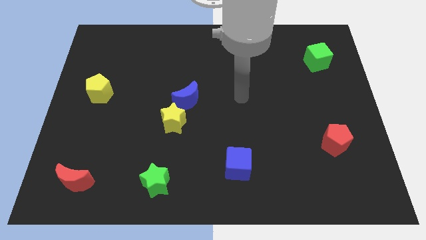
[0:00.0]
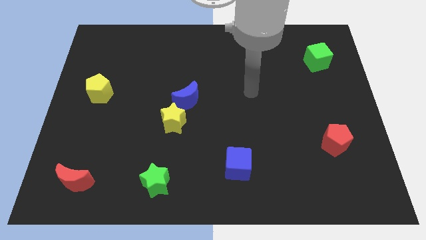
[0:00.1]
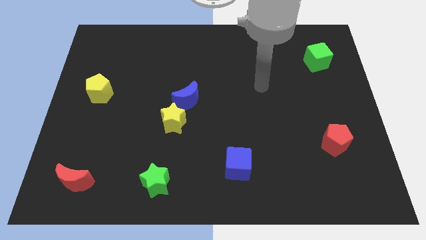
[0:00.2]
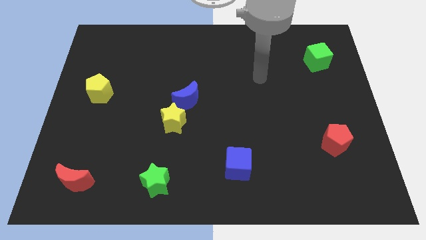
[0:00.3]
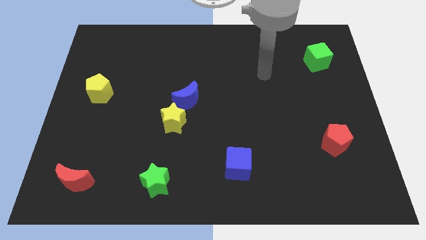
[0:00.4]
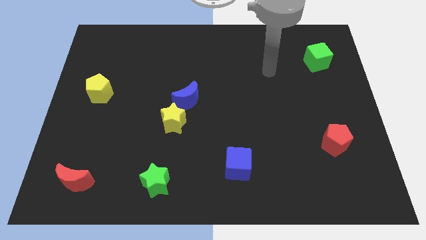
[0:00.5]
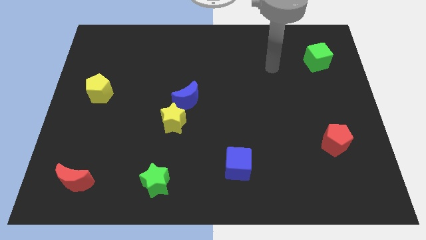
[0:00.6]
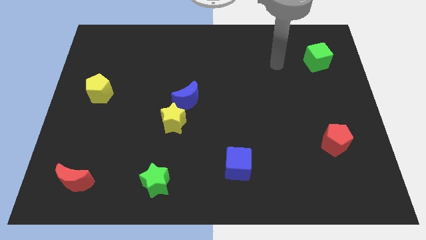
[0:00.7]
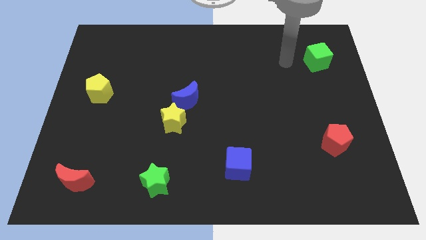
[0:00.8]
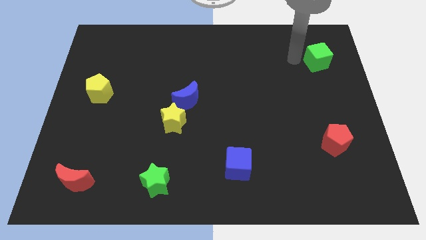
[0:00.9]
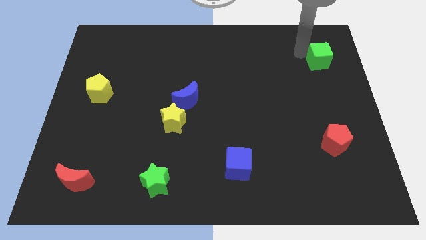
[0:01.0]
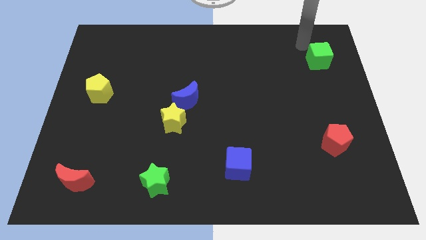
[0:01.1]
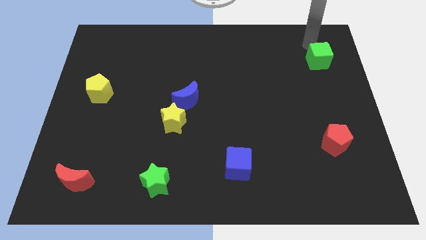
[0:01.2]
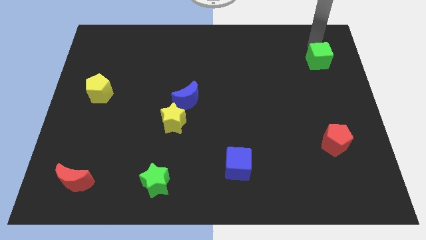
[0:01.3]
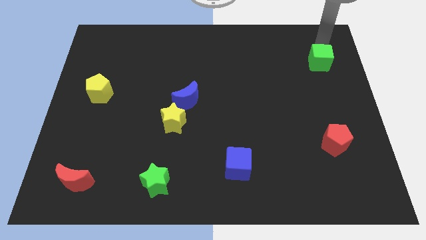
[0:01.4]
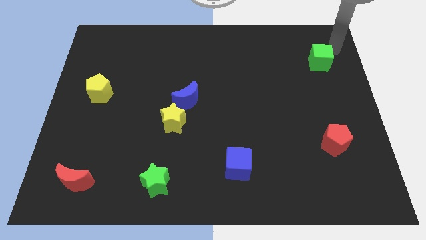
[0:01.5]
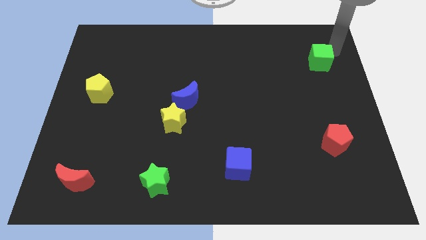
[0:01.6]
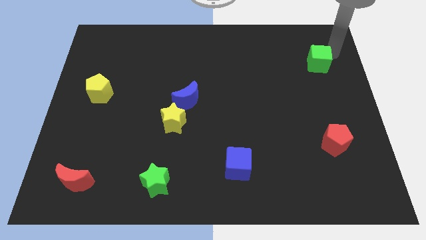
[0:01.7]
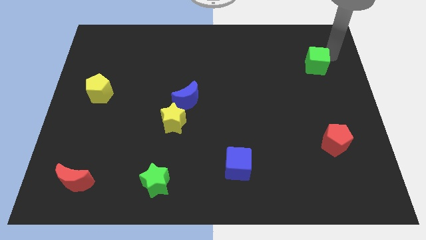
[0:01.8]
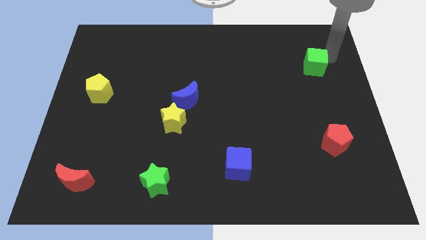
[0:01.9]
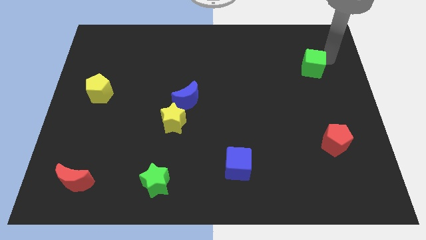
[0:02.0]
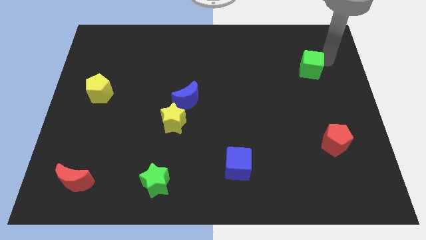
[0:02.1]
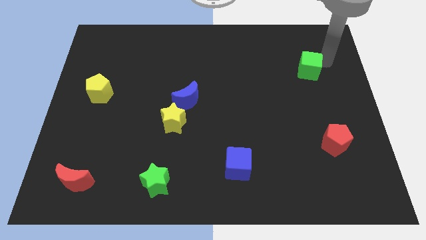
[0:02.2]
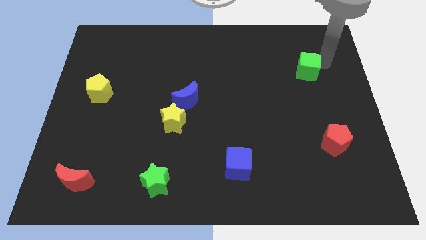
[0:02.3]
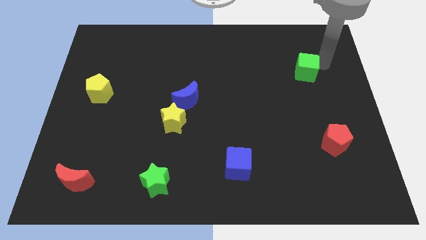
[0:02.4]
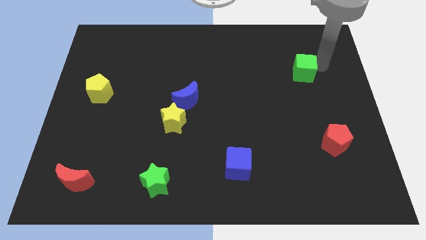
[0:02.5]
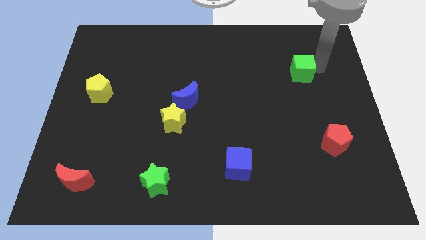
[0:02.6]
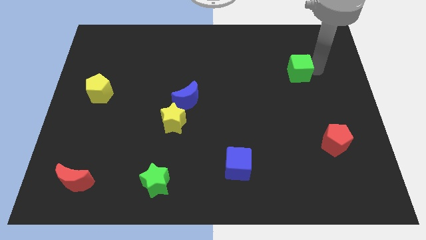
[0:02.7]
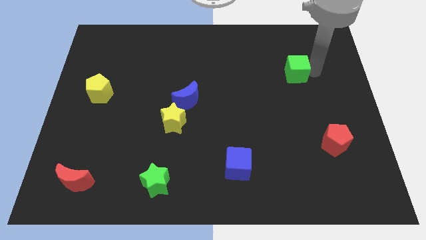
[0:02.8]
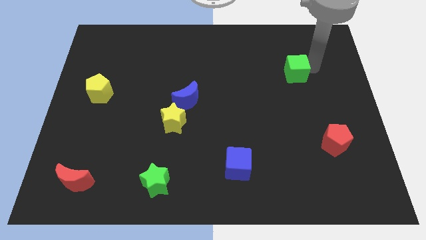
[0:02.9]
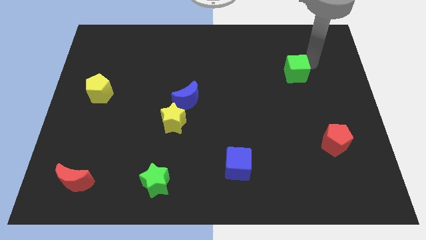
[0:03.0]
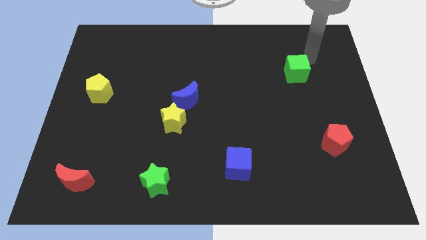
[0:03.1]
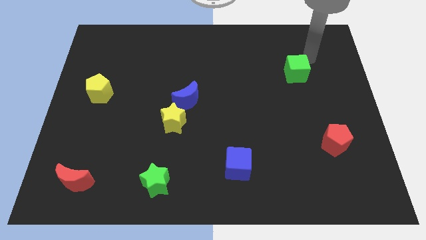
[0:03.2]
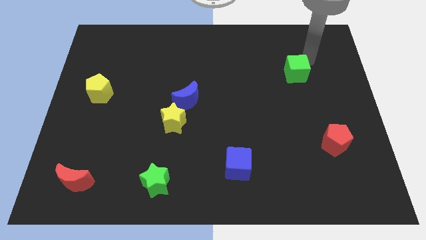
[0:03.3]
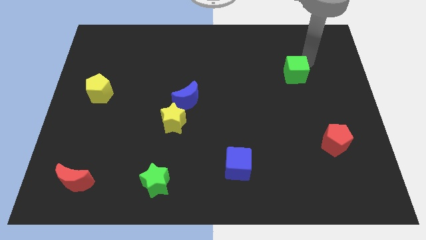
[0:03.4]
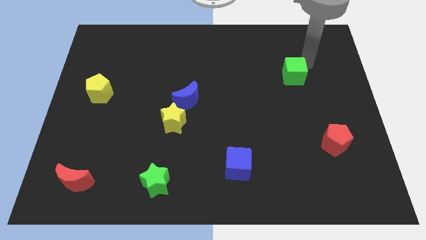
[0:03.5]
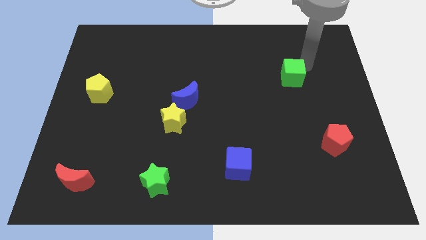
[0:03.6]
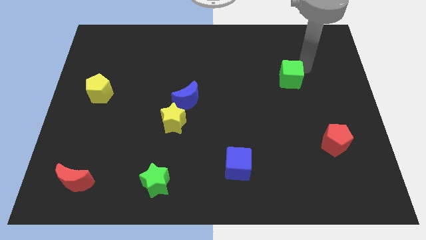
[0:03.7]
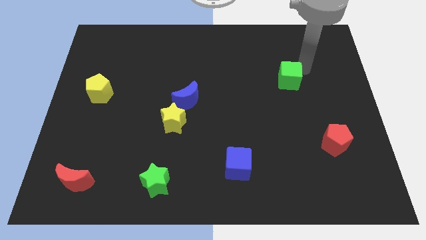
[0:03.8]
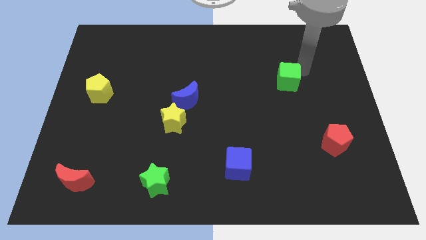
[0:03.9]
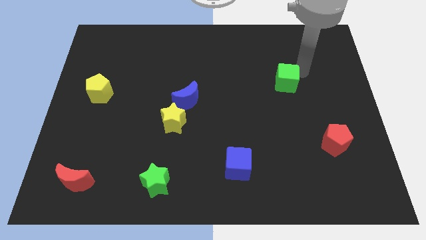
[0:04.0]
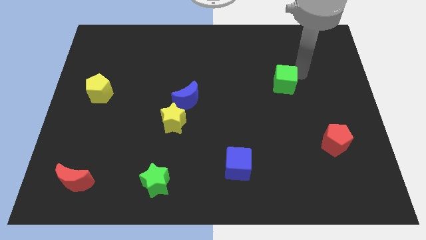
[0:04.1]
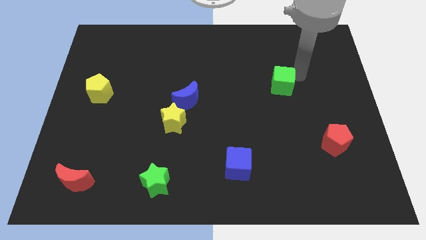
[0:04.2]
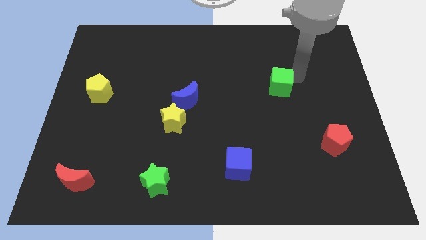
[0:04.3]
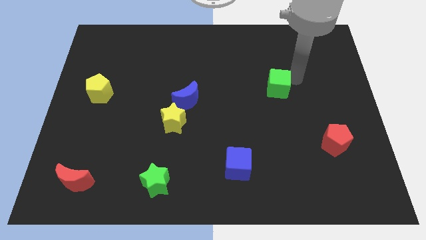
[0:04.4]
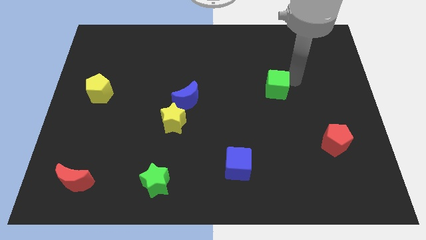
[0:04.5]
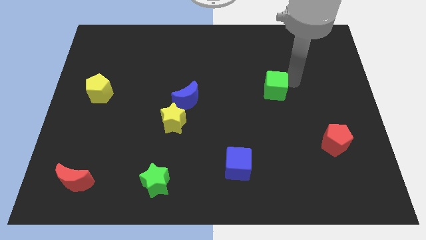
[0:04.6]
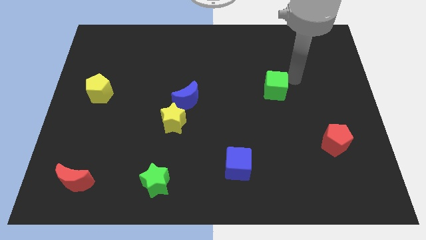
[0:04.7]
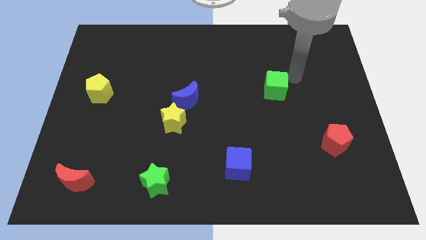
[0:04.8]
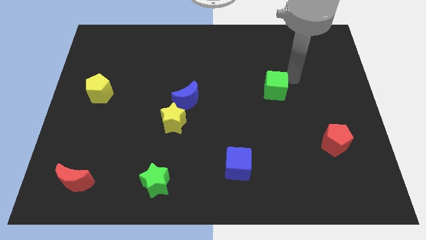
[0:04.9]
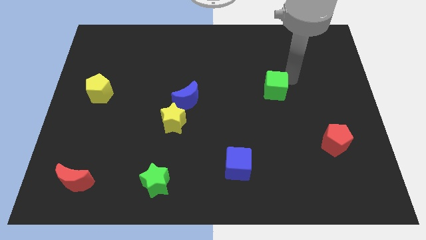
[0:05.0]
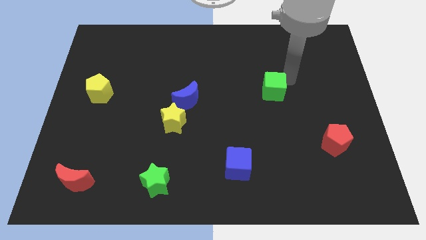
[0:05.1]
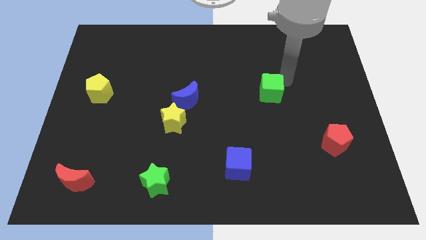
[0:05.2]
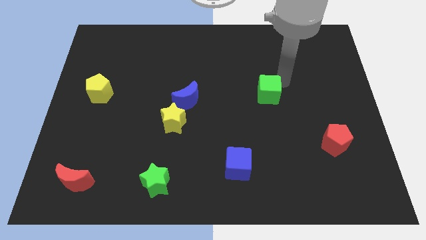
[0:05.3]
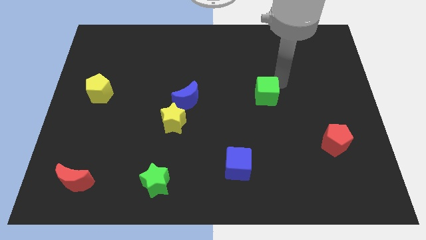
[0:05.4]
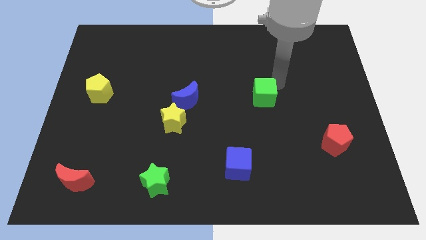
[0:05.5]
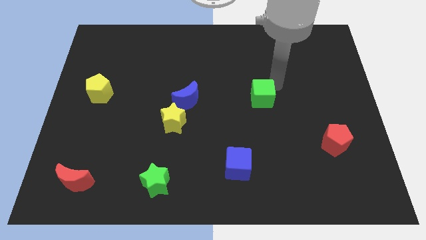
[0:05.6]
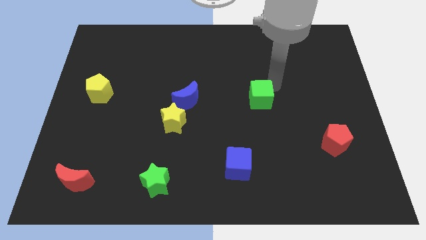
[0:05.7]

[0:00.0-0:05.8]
move the green cube down and to the left

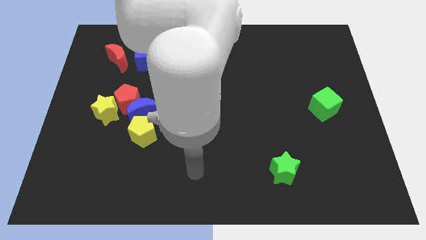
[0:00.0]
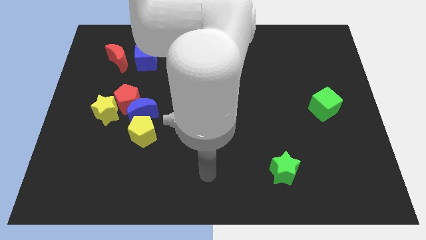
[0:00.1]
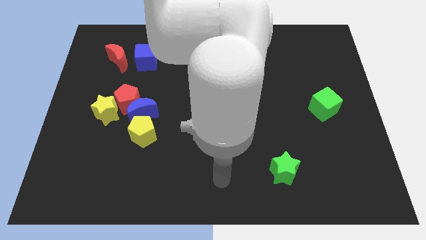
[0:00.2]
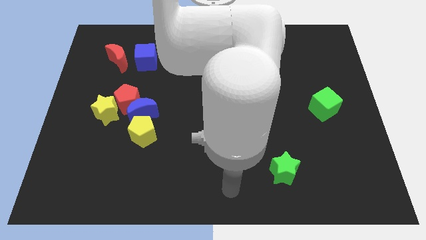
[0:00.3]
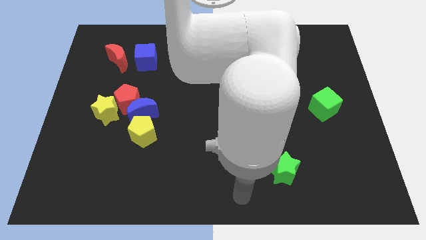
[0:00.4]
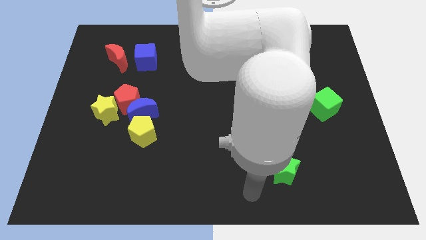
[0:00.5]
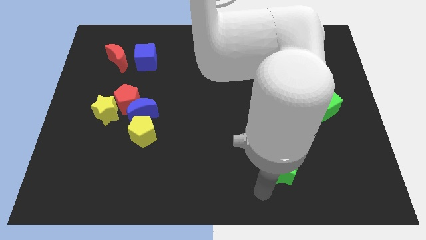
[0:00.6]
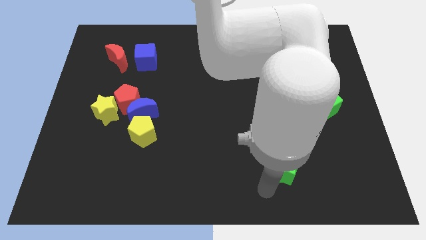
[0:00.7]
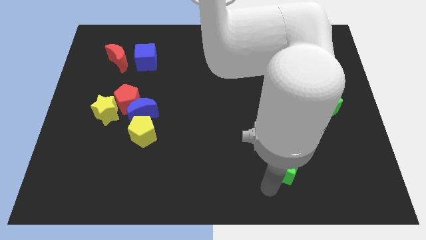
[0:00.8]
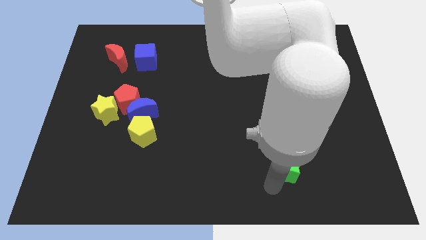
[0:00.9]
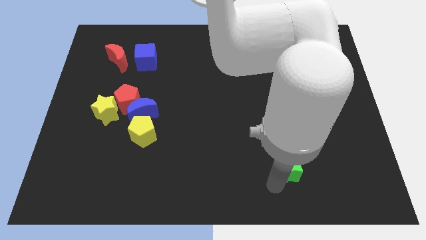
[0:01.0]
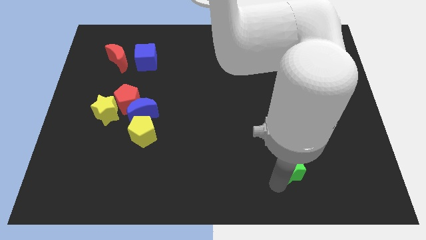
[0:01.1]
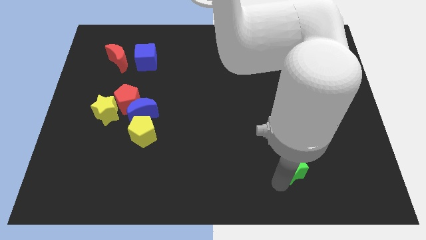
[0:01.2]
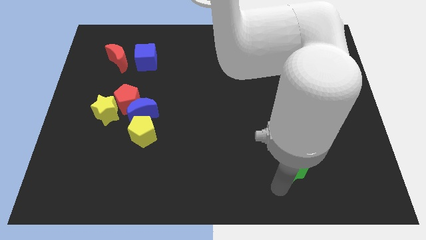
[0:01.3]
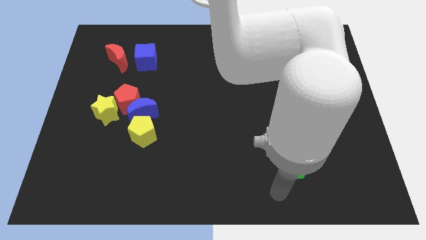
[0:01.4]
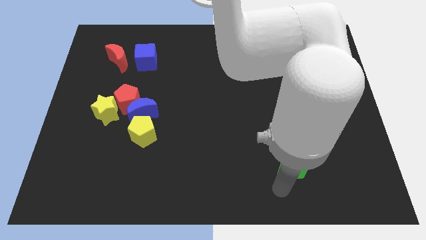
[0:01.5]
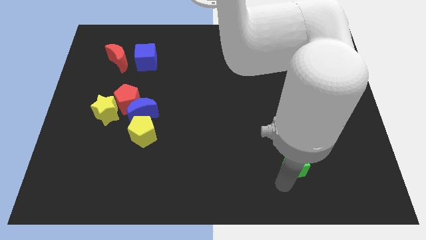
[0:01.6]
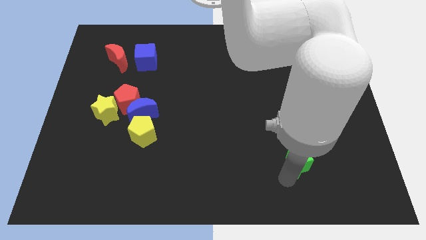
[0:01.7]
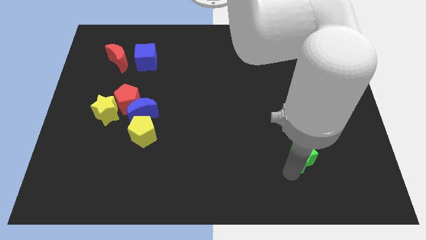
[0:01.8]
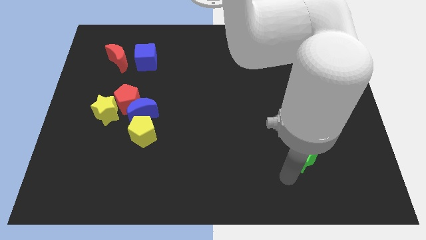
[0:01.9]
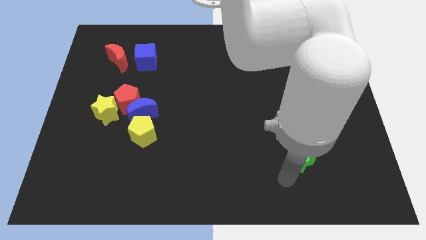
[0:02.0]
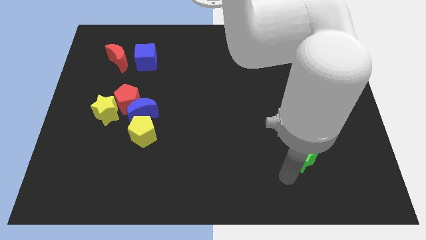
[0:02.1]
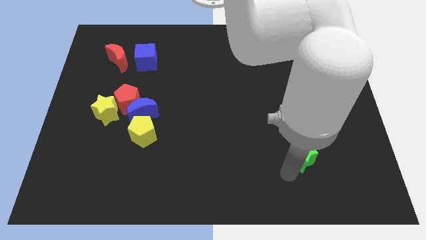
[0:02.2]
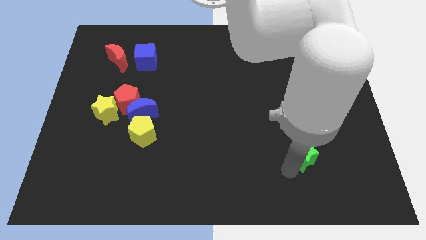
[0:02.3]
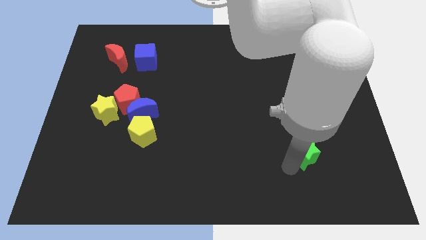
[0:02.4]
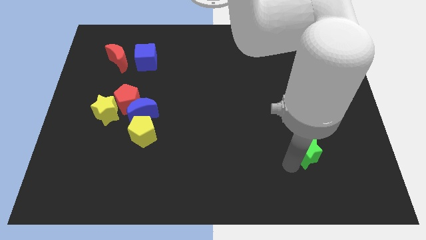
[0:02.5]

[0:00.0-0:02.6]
slightly move the green star upwards and right diagonally
